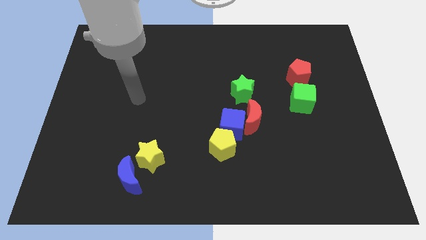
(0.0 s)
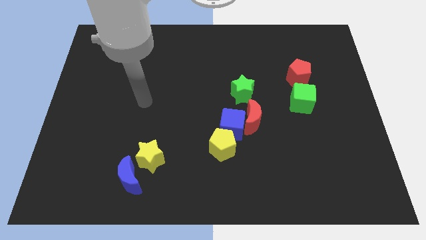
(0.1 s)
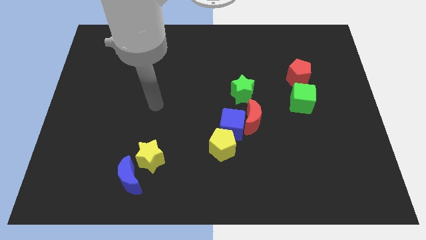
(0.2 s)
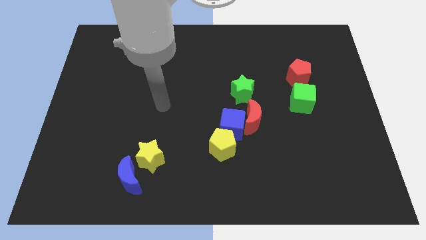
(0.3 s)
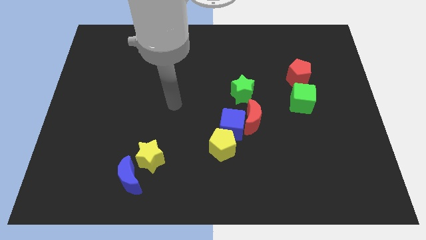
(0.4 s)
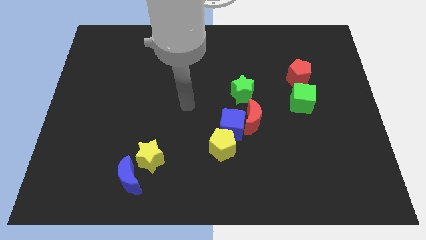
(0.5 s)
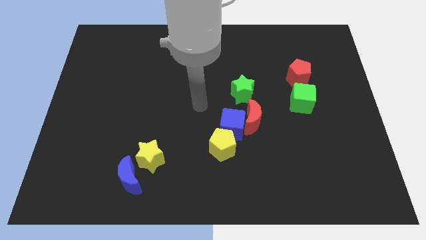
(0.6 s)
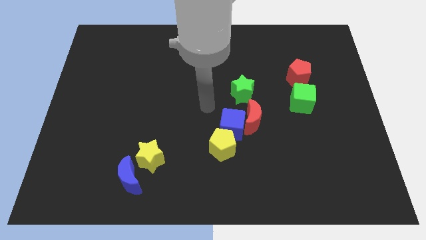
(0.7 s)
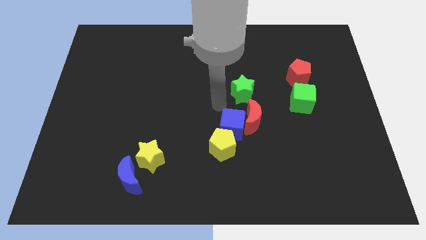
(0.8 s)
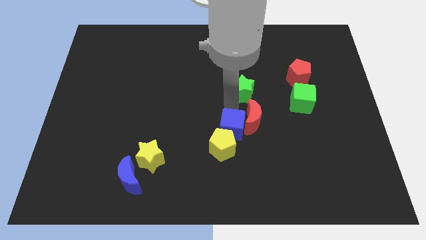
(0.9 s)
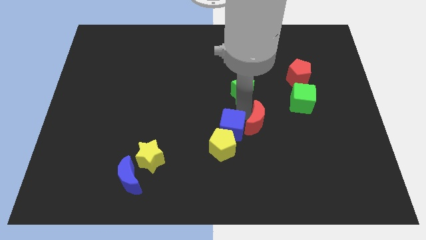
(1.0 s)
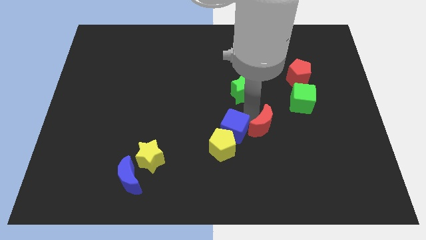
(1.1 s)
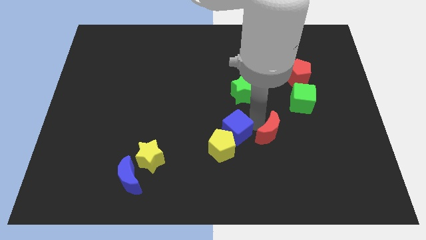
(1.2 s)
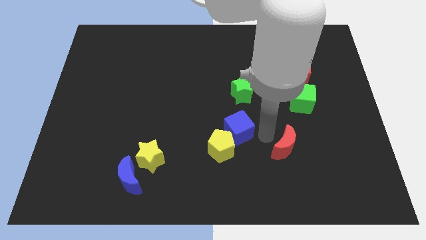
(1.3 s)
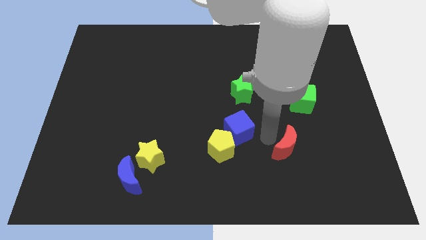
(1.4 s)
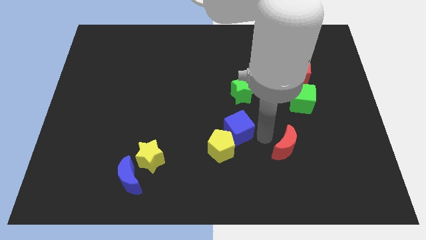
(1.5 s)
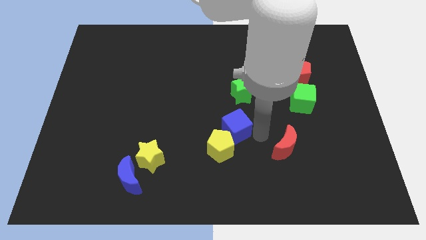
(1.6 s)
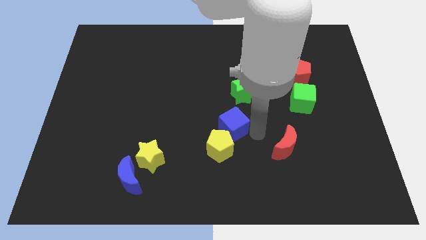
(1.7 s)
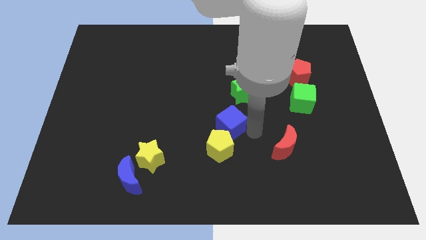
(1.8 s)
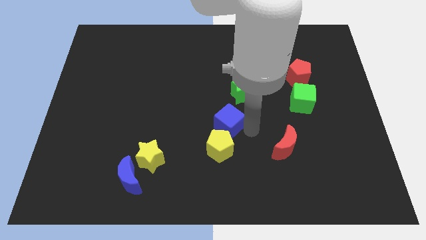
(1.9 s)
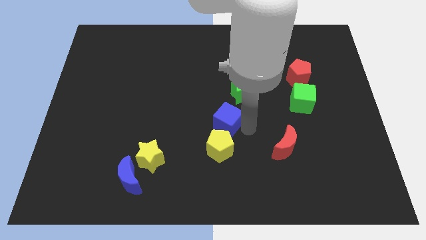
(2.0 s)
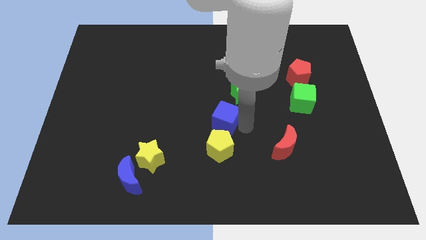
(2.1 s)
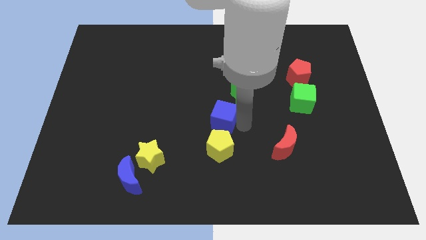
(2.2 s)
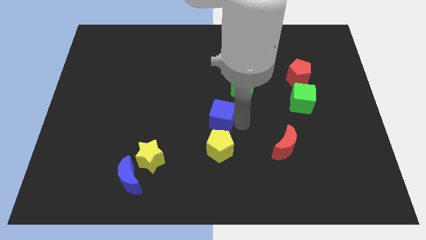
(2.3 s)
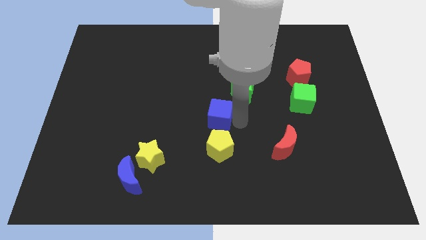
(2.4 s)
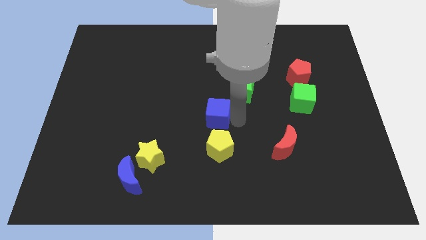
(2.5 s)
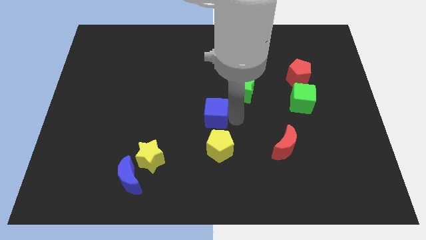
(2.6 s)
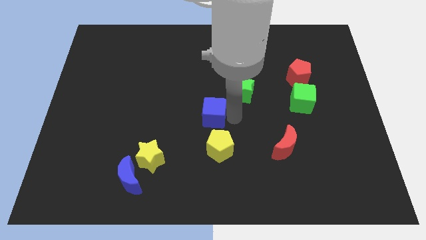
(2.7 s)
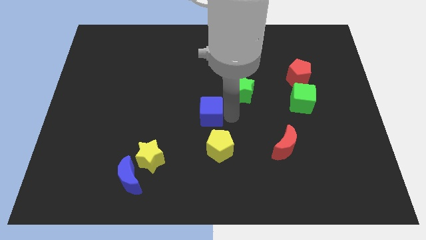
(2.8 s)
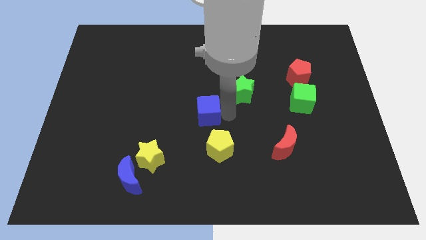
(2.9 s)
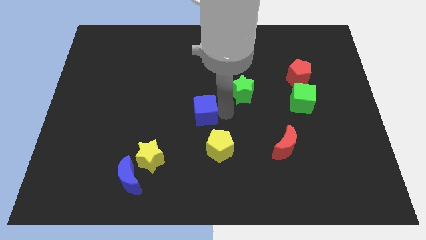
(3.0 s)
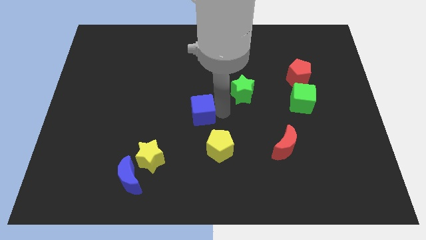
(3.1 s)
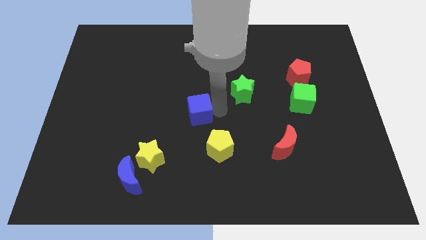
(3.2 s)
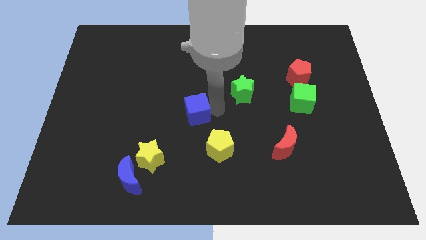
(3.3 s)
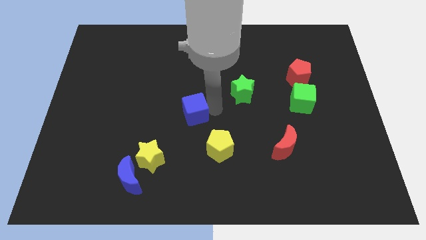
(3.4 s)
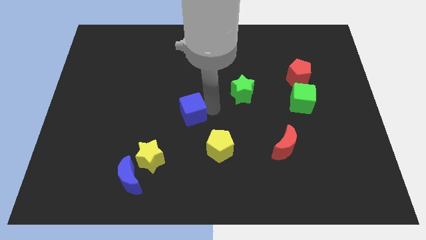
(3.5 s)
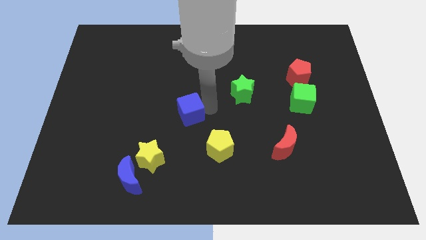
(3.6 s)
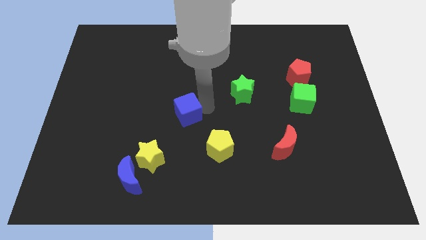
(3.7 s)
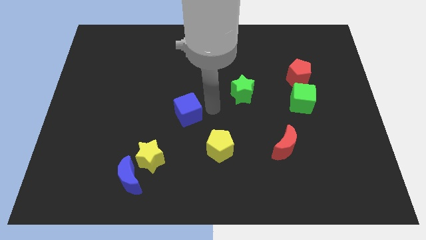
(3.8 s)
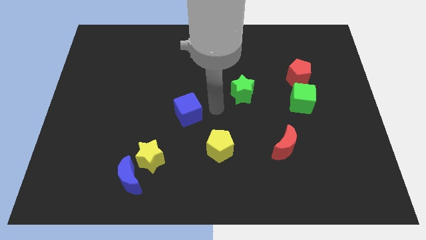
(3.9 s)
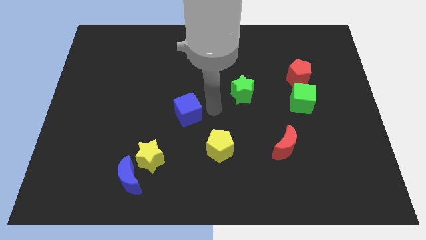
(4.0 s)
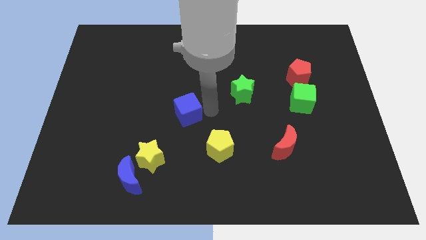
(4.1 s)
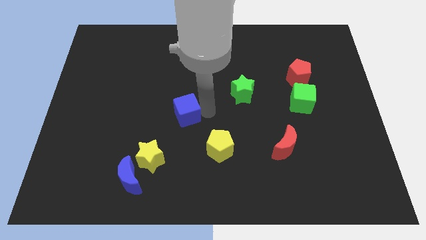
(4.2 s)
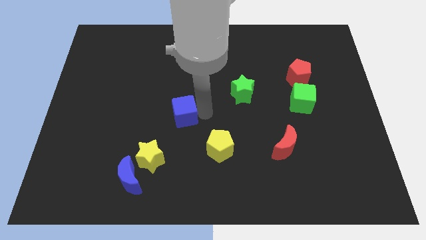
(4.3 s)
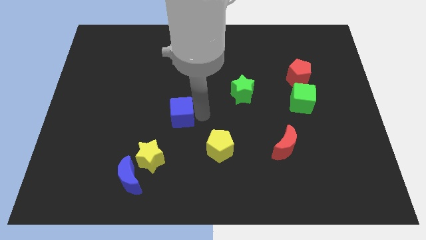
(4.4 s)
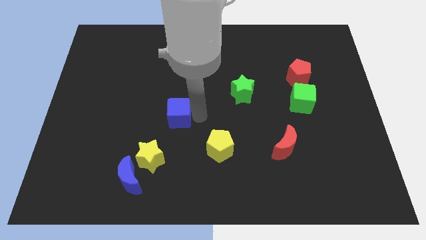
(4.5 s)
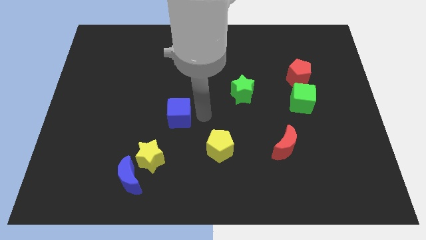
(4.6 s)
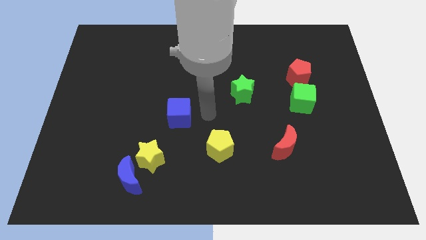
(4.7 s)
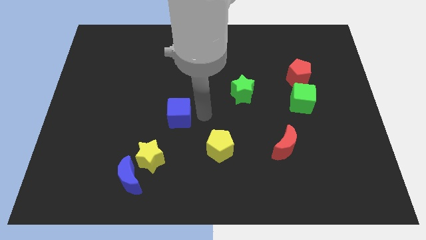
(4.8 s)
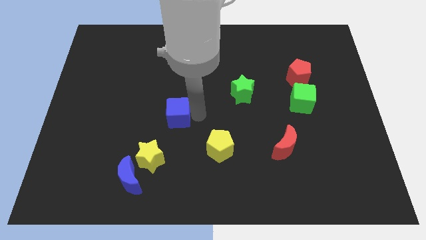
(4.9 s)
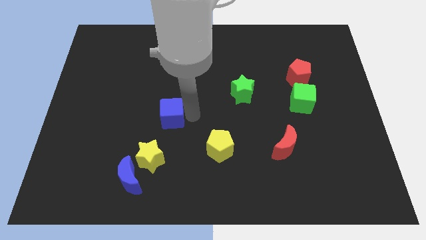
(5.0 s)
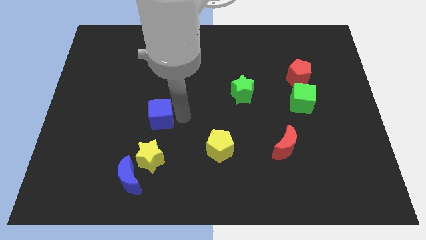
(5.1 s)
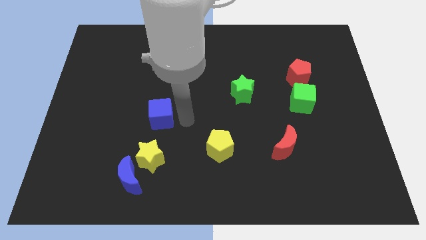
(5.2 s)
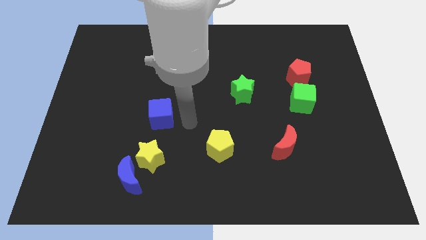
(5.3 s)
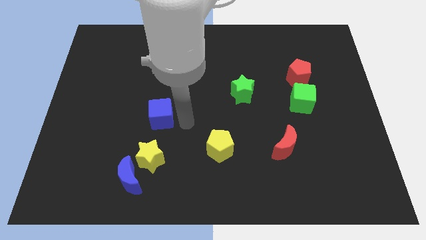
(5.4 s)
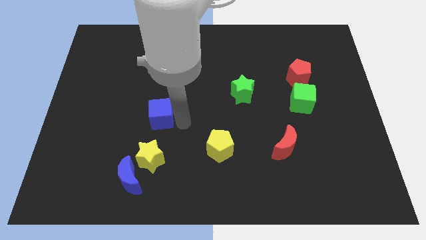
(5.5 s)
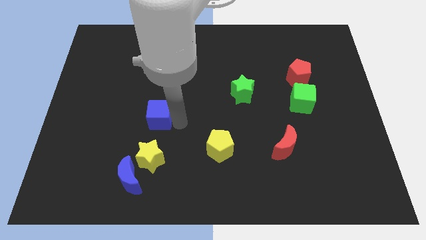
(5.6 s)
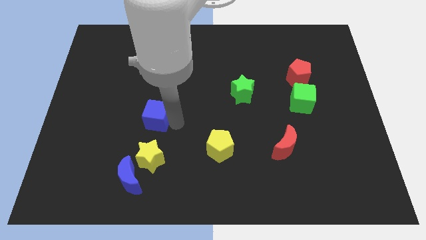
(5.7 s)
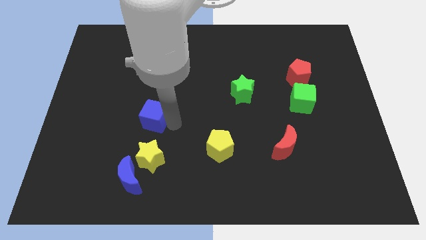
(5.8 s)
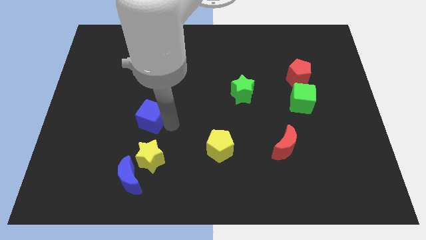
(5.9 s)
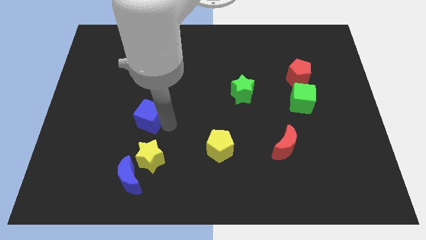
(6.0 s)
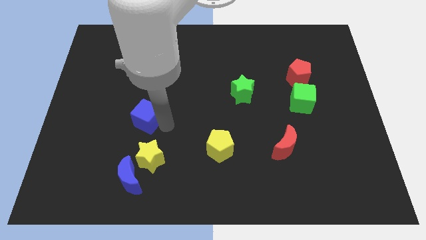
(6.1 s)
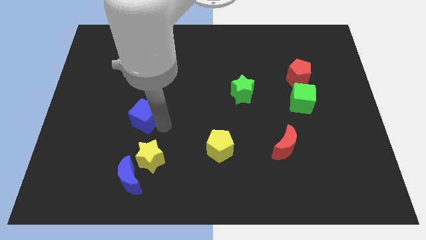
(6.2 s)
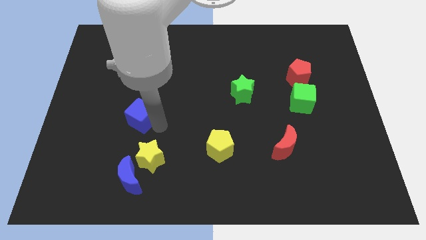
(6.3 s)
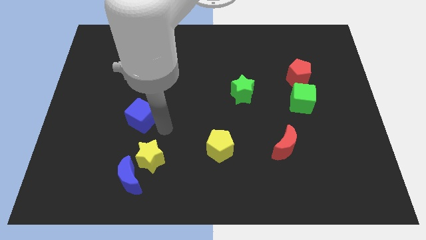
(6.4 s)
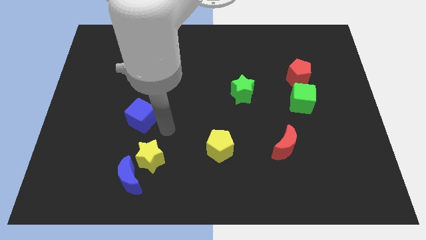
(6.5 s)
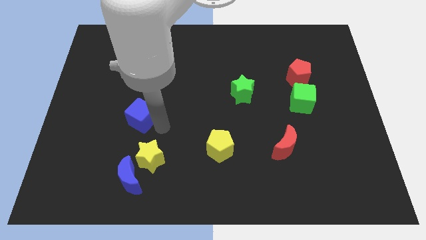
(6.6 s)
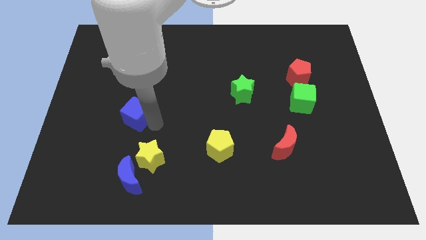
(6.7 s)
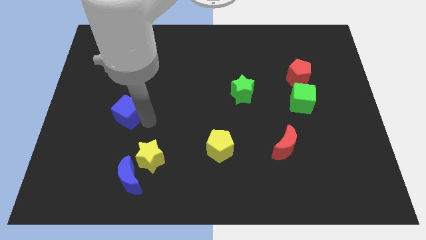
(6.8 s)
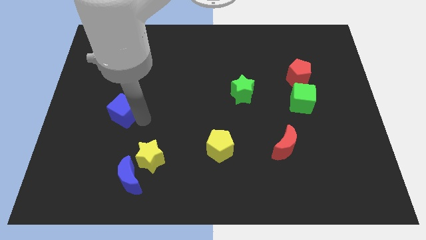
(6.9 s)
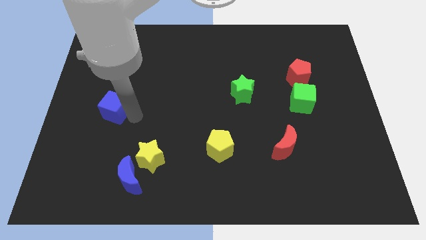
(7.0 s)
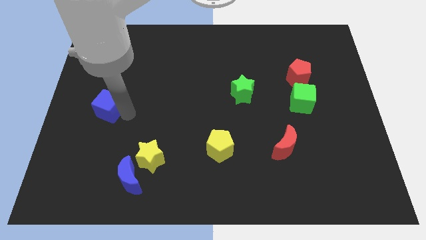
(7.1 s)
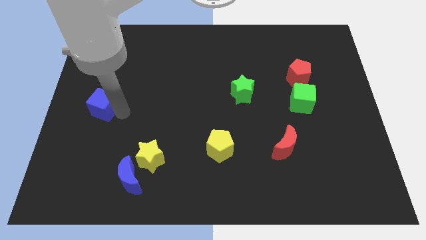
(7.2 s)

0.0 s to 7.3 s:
move the blue cube to the left side of the board
